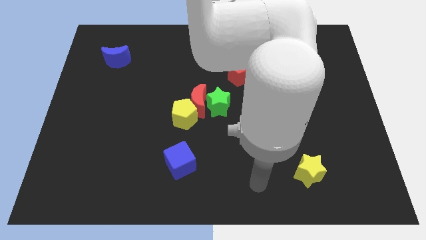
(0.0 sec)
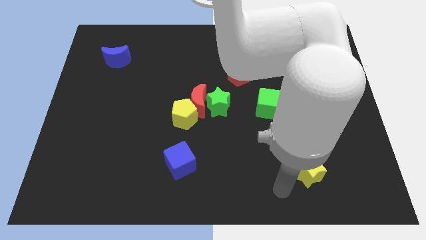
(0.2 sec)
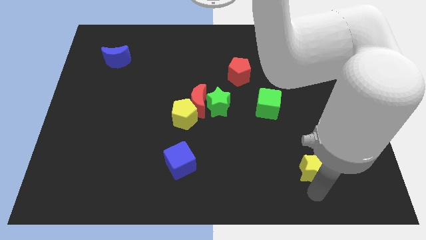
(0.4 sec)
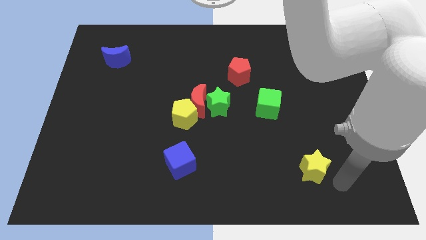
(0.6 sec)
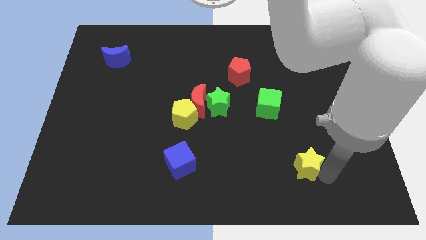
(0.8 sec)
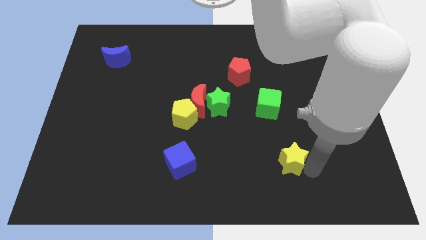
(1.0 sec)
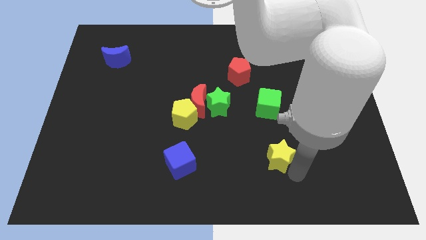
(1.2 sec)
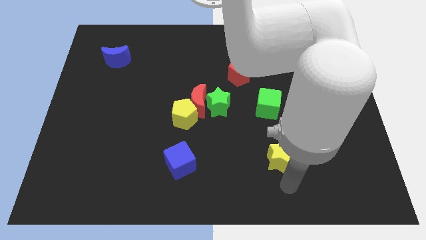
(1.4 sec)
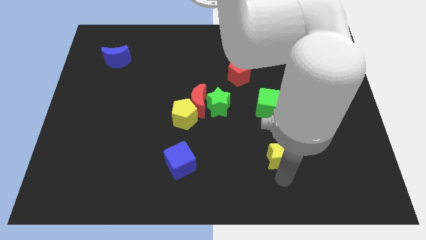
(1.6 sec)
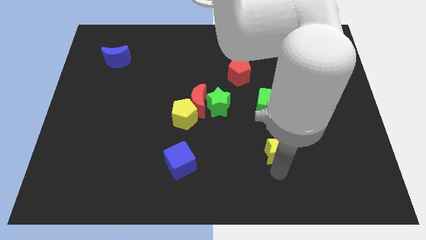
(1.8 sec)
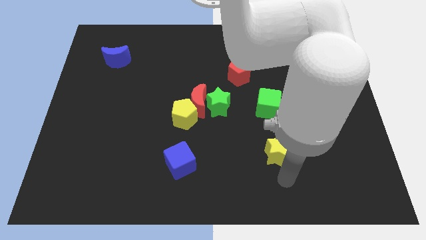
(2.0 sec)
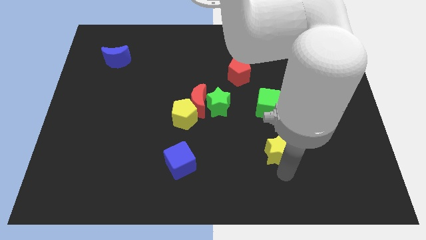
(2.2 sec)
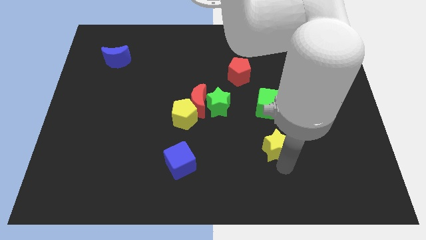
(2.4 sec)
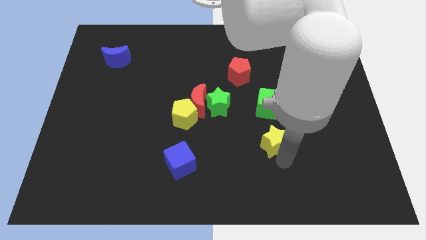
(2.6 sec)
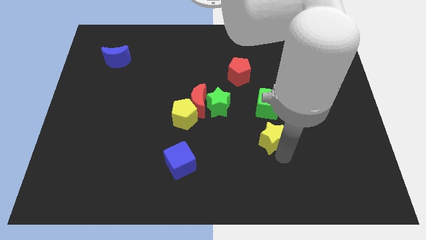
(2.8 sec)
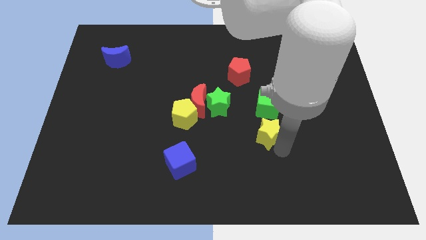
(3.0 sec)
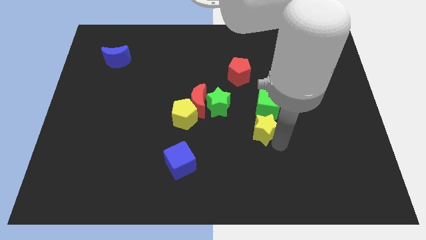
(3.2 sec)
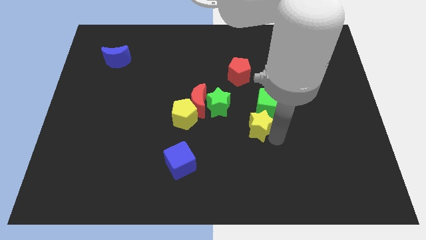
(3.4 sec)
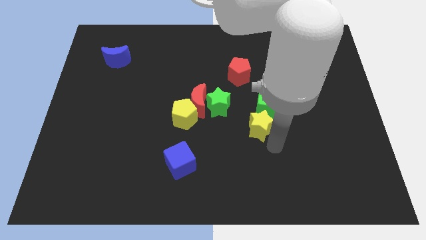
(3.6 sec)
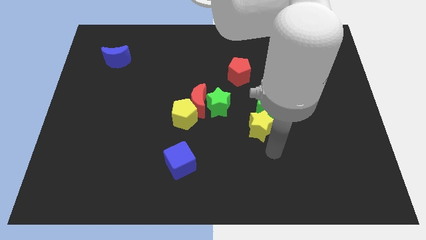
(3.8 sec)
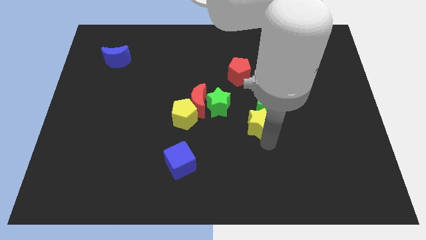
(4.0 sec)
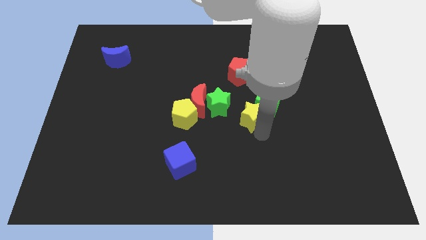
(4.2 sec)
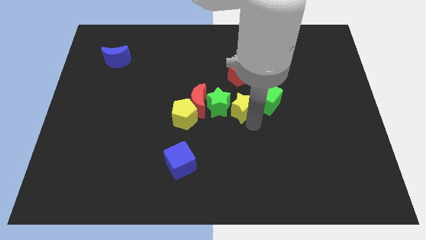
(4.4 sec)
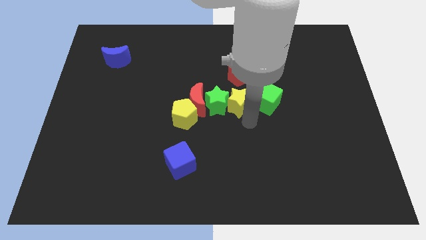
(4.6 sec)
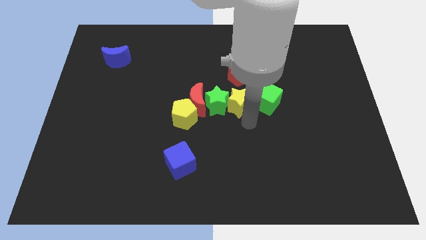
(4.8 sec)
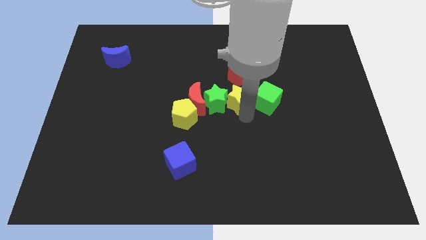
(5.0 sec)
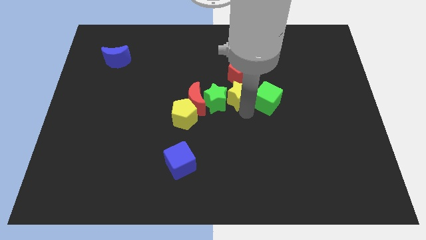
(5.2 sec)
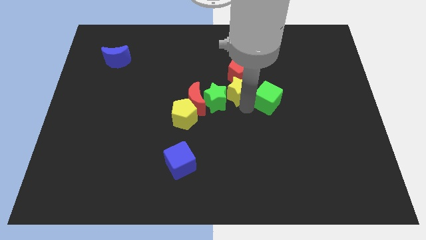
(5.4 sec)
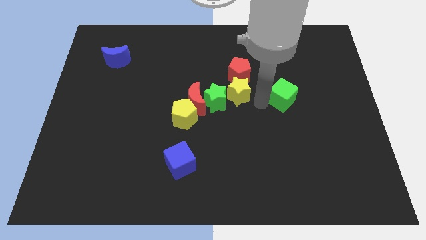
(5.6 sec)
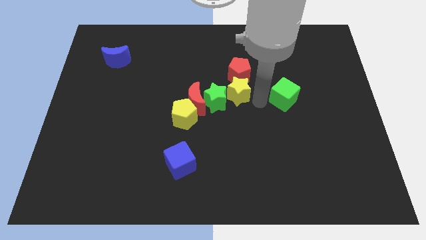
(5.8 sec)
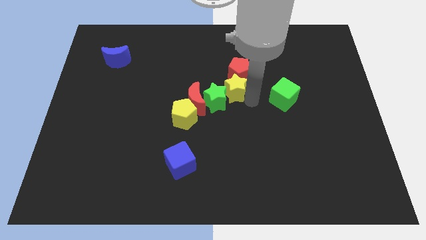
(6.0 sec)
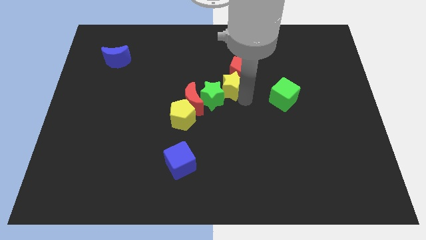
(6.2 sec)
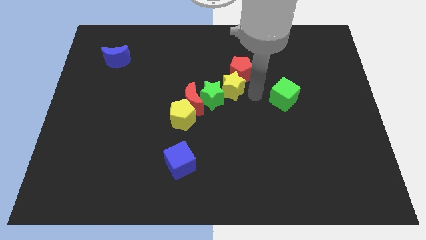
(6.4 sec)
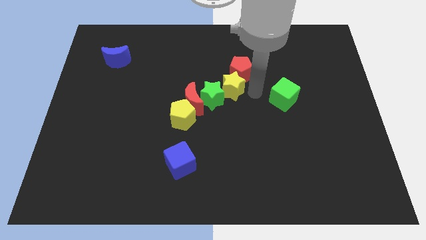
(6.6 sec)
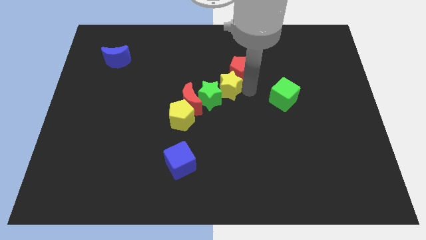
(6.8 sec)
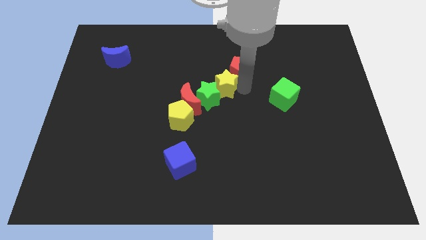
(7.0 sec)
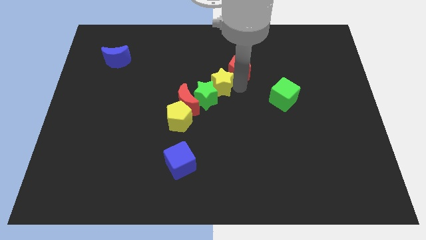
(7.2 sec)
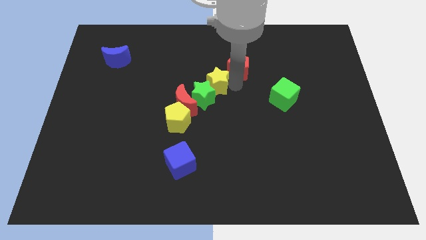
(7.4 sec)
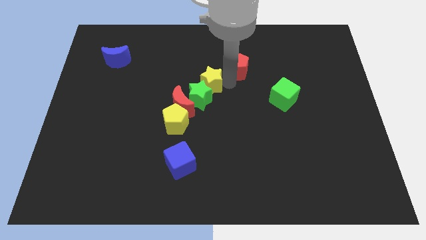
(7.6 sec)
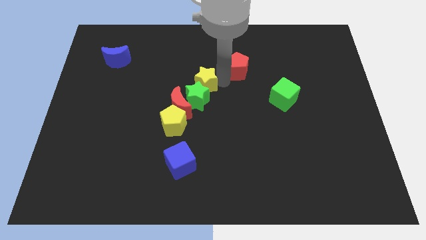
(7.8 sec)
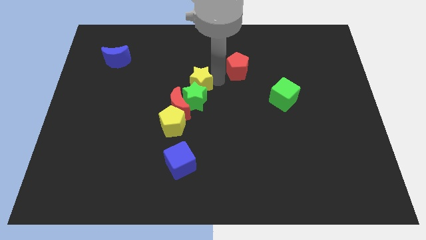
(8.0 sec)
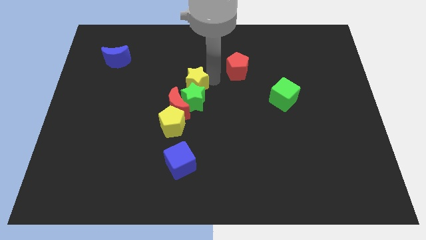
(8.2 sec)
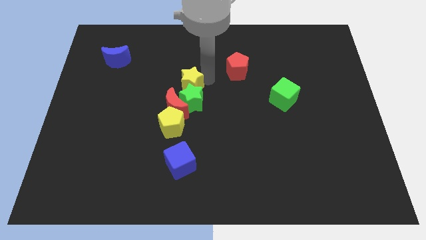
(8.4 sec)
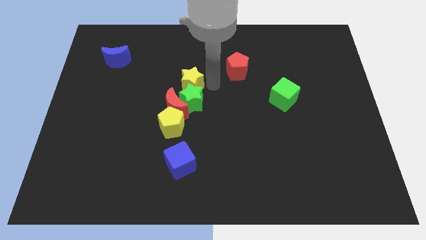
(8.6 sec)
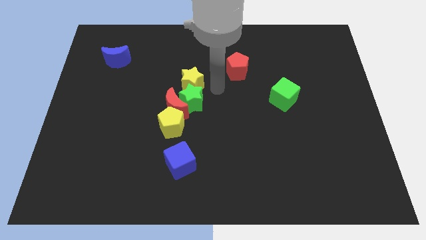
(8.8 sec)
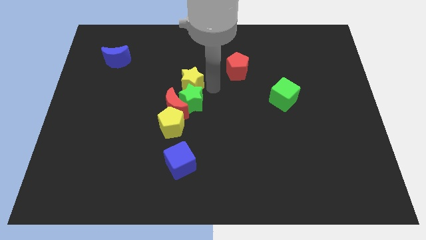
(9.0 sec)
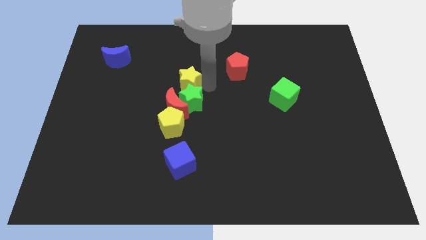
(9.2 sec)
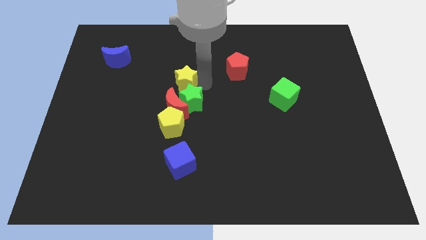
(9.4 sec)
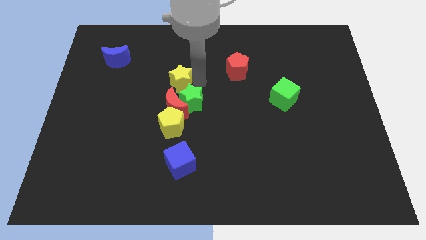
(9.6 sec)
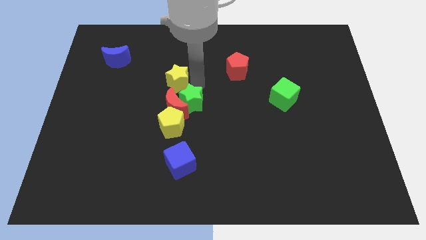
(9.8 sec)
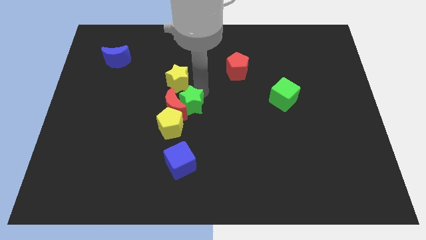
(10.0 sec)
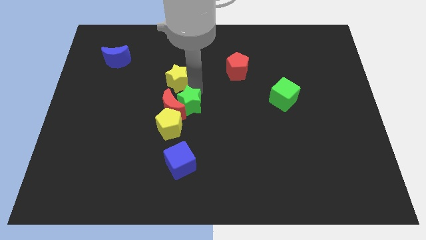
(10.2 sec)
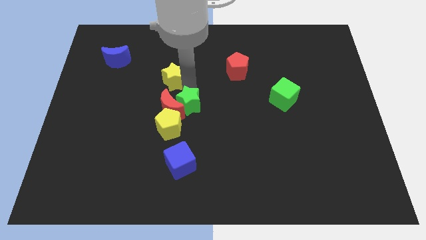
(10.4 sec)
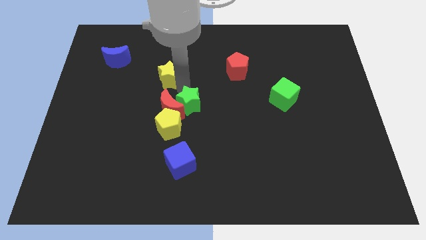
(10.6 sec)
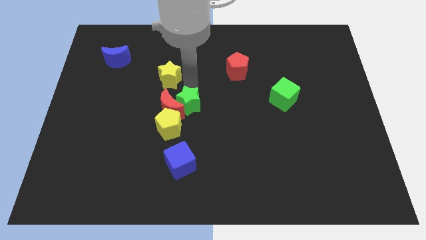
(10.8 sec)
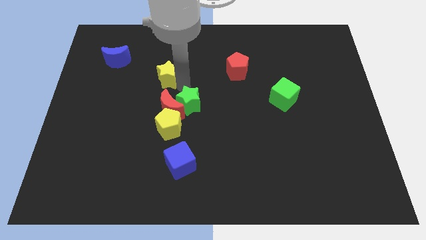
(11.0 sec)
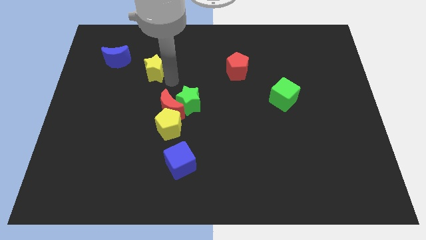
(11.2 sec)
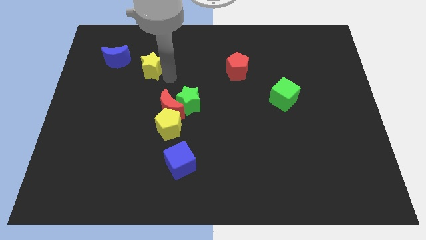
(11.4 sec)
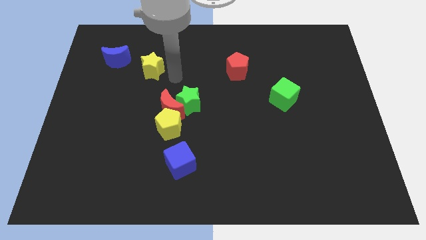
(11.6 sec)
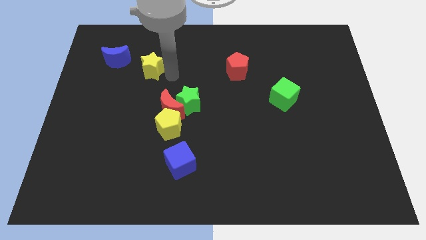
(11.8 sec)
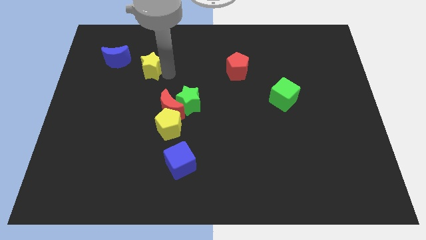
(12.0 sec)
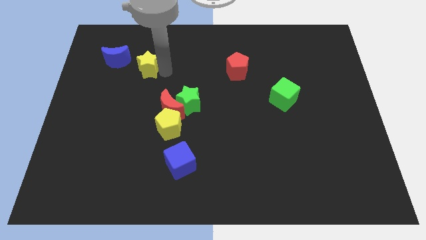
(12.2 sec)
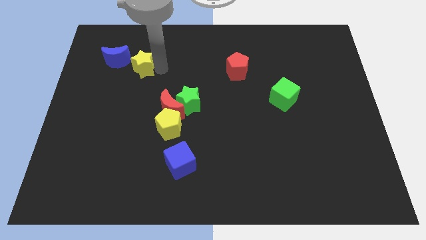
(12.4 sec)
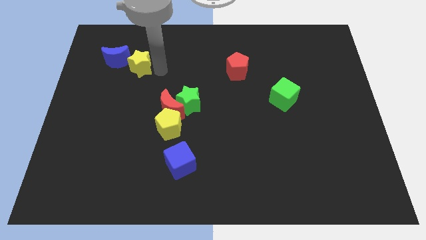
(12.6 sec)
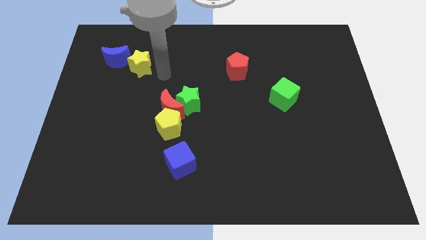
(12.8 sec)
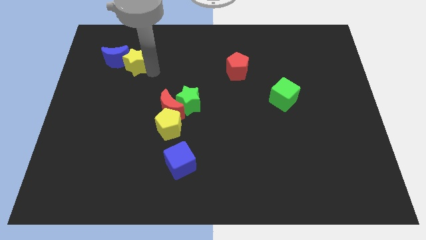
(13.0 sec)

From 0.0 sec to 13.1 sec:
push the yellow star towards the blue moon

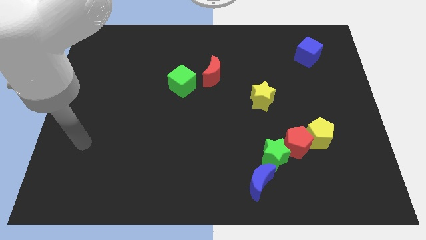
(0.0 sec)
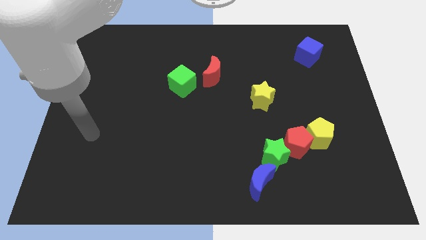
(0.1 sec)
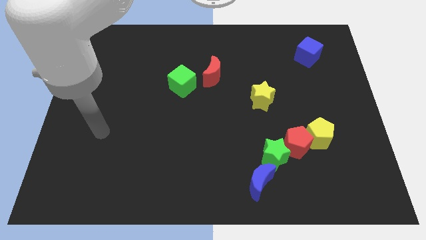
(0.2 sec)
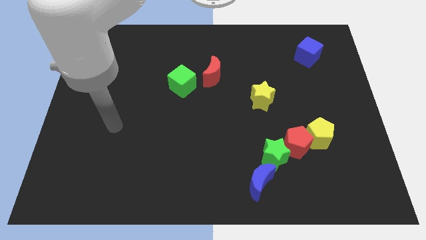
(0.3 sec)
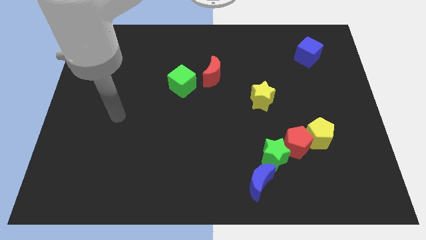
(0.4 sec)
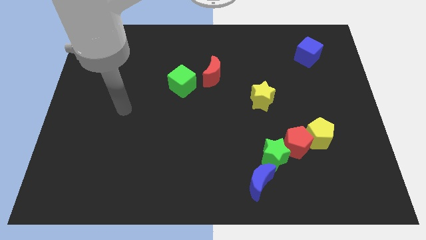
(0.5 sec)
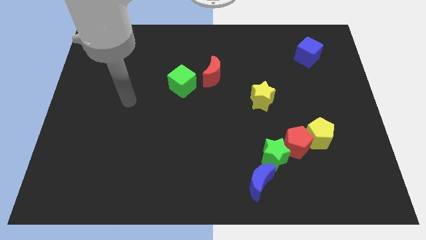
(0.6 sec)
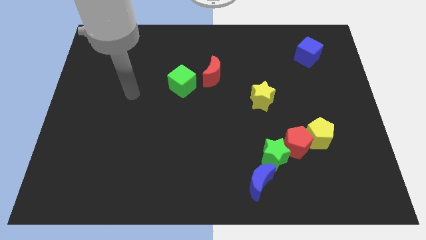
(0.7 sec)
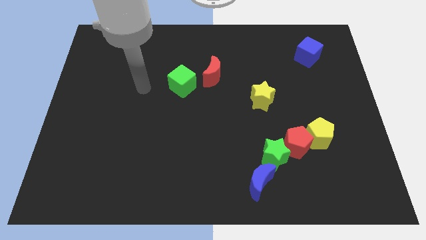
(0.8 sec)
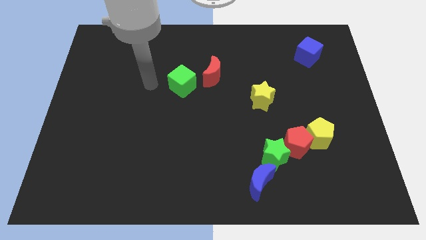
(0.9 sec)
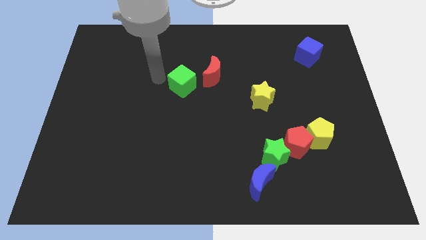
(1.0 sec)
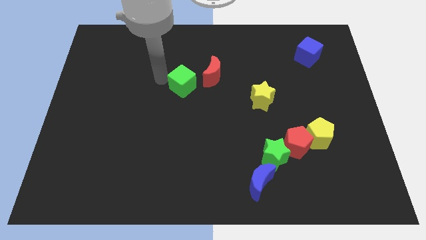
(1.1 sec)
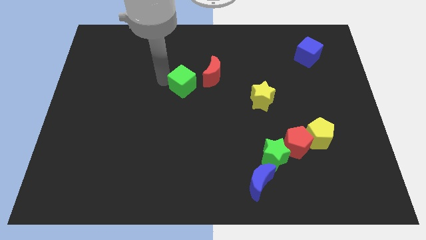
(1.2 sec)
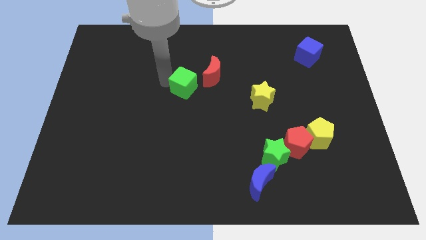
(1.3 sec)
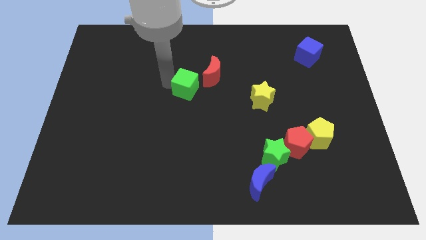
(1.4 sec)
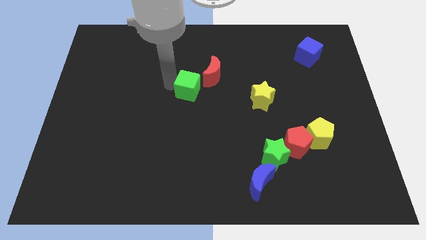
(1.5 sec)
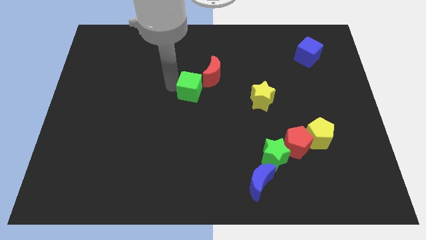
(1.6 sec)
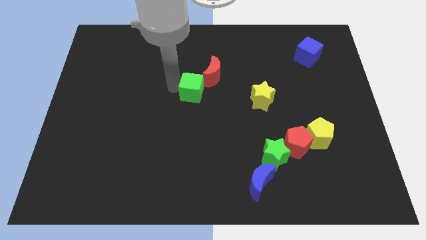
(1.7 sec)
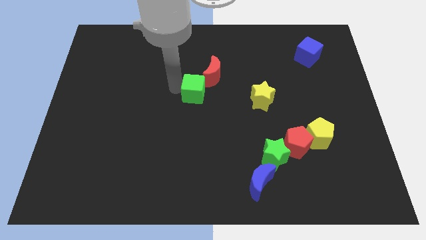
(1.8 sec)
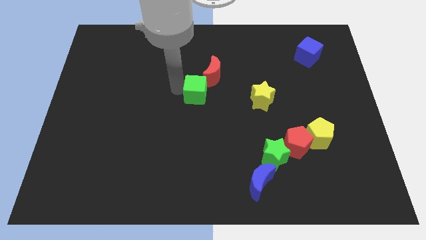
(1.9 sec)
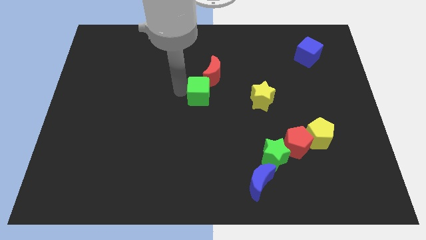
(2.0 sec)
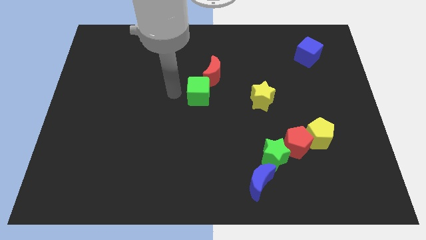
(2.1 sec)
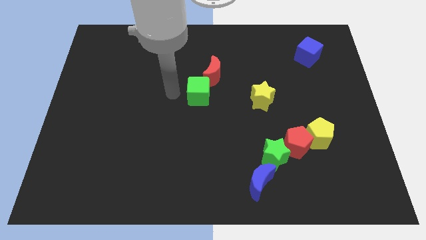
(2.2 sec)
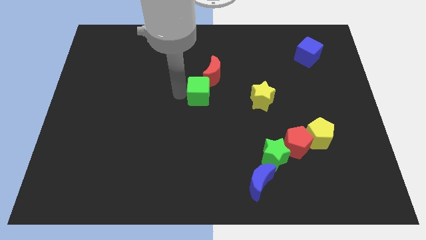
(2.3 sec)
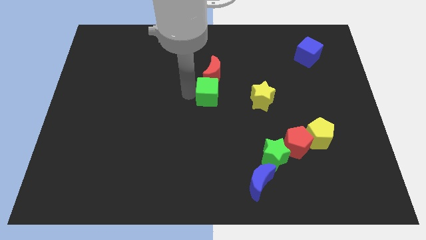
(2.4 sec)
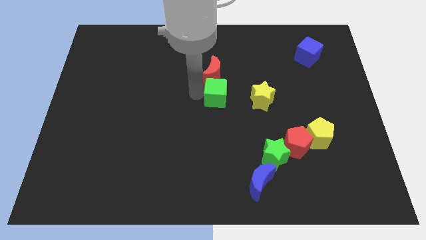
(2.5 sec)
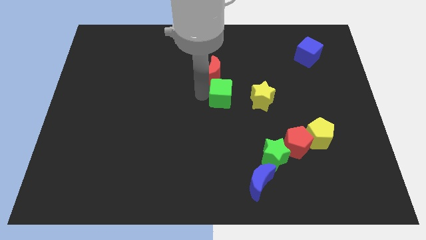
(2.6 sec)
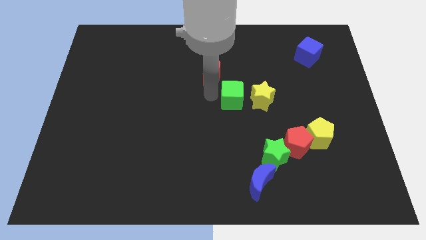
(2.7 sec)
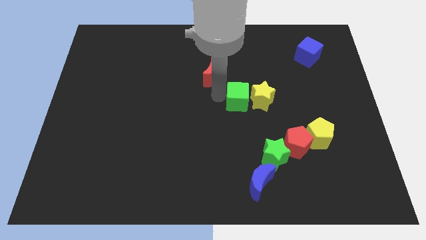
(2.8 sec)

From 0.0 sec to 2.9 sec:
push the green cube close to the yellow star
